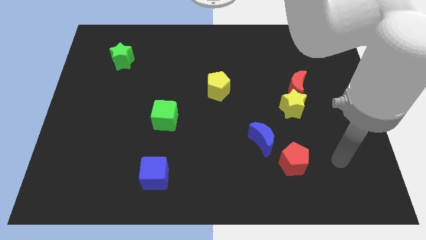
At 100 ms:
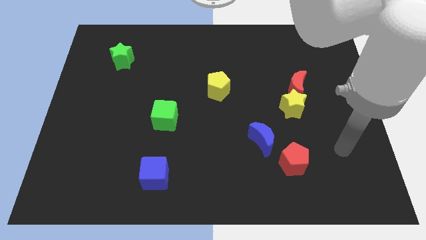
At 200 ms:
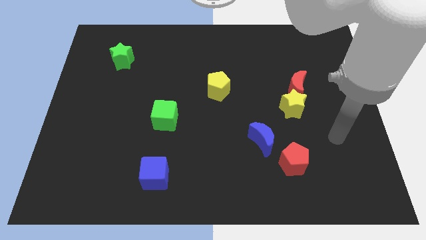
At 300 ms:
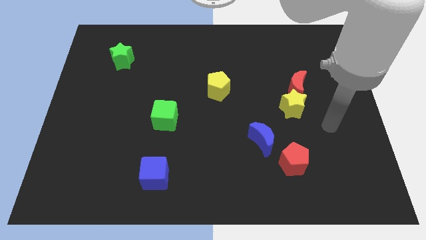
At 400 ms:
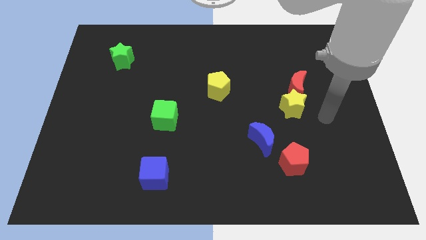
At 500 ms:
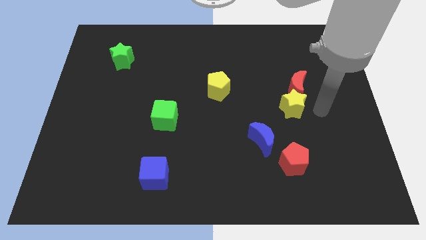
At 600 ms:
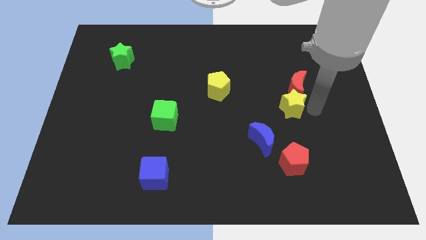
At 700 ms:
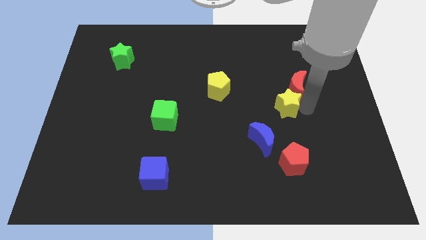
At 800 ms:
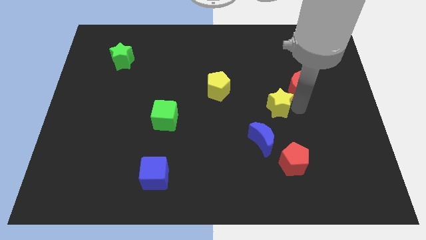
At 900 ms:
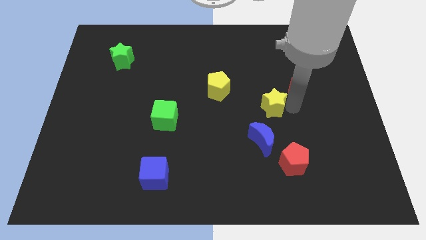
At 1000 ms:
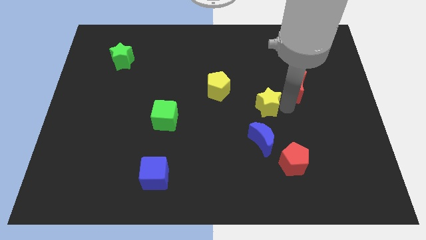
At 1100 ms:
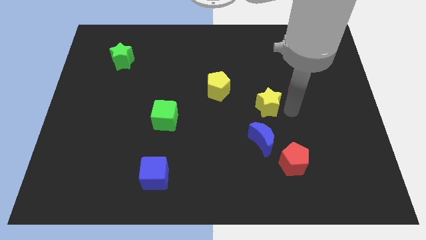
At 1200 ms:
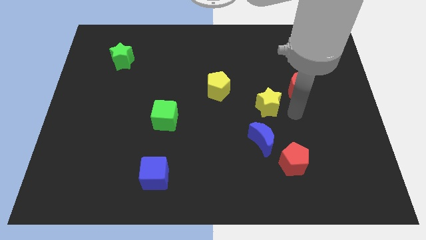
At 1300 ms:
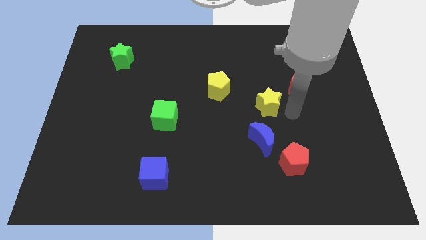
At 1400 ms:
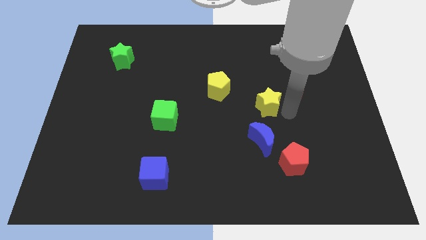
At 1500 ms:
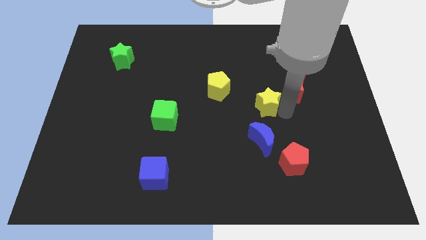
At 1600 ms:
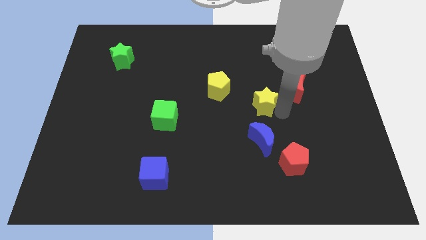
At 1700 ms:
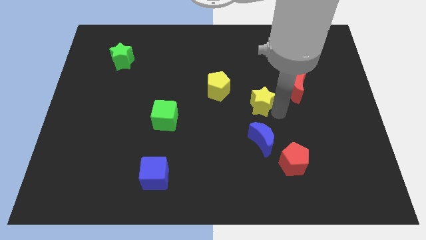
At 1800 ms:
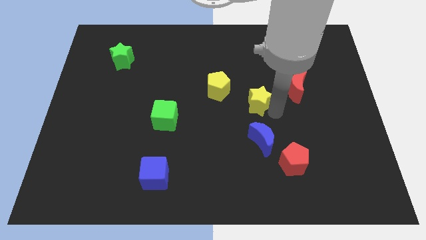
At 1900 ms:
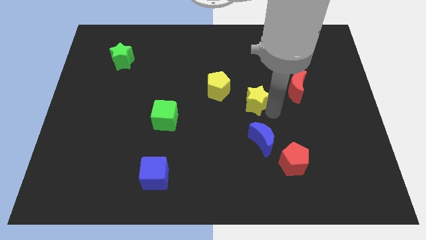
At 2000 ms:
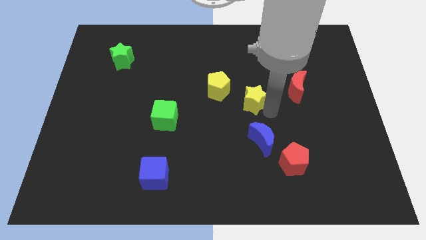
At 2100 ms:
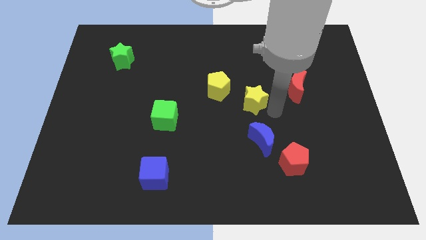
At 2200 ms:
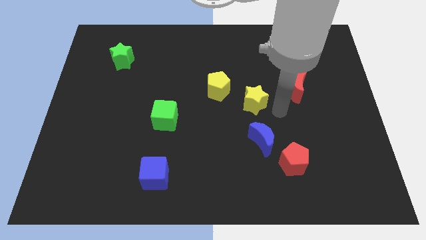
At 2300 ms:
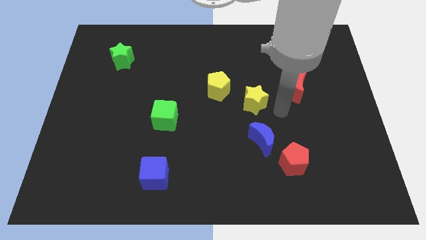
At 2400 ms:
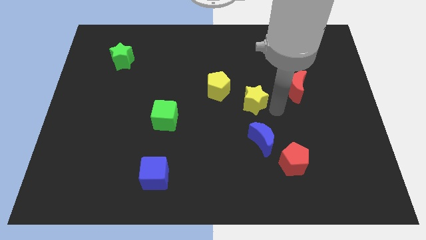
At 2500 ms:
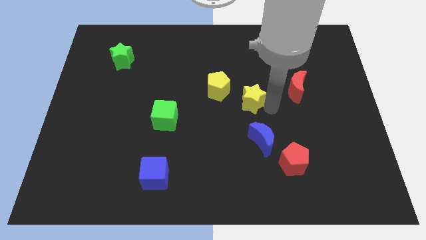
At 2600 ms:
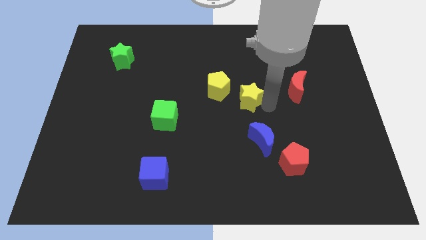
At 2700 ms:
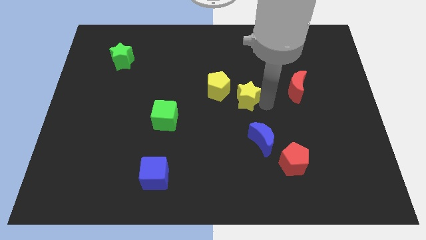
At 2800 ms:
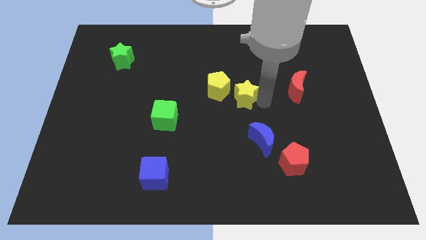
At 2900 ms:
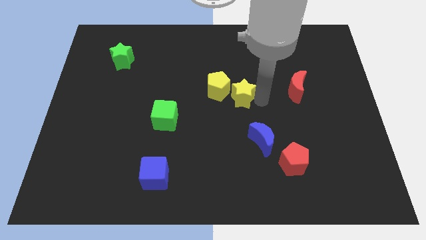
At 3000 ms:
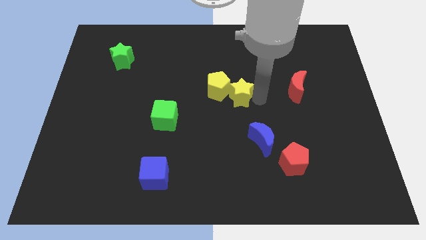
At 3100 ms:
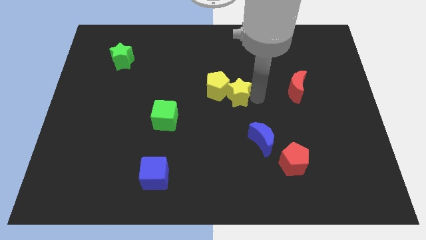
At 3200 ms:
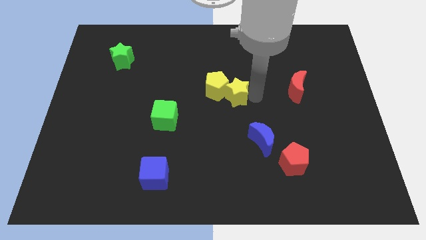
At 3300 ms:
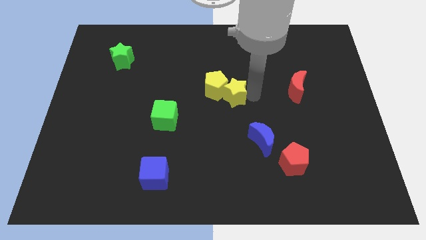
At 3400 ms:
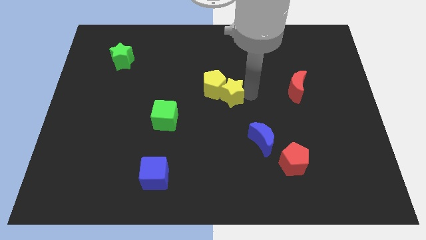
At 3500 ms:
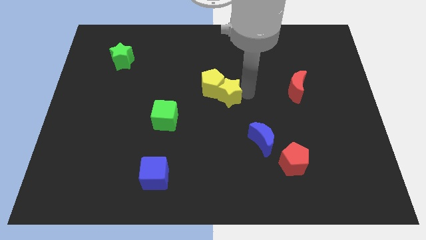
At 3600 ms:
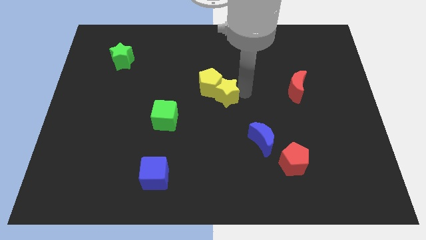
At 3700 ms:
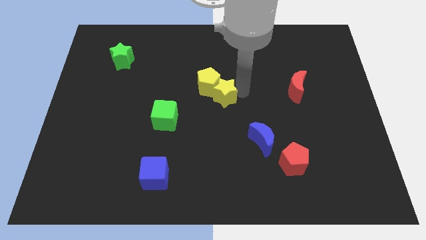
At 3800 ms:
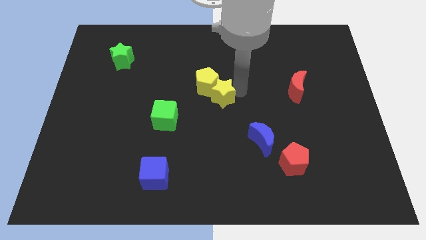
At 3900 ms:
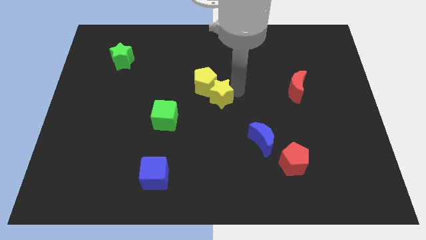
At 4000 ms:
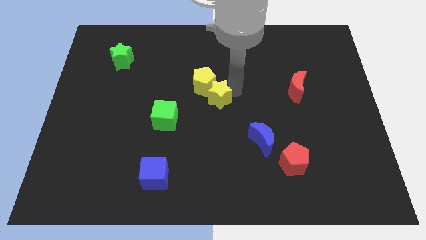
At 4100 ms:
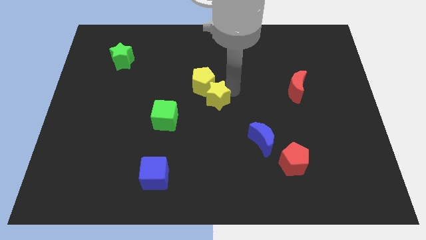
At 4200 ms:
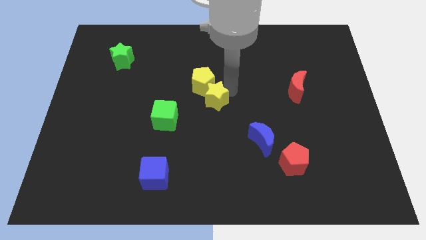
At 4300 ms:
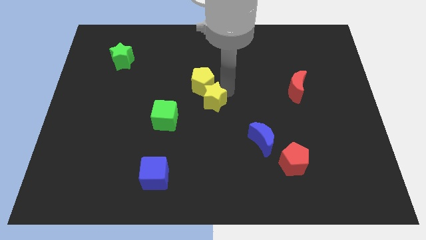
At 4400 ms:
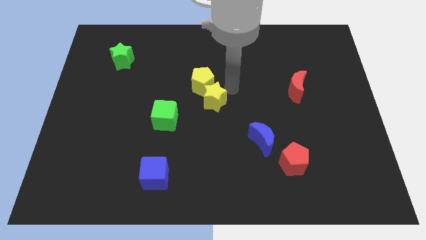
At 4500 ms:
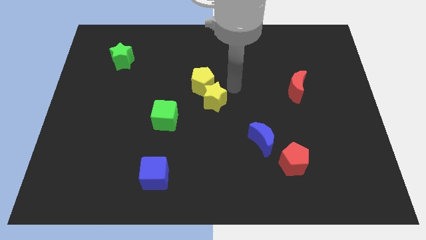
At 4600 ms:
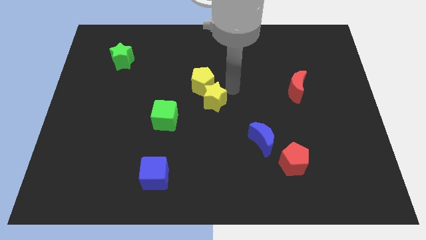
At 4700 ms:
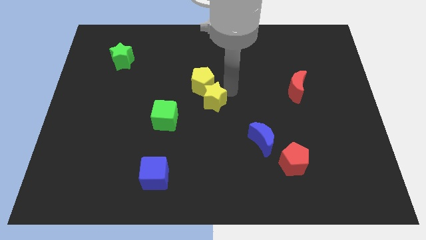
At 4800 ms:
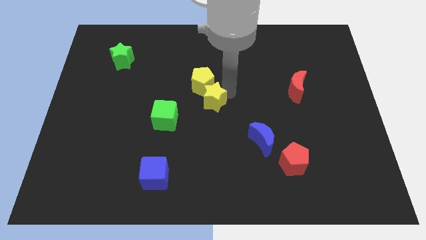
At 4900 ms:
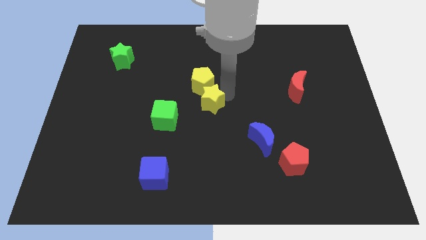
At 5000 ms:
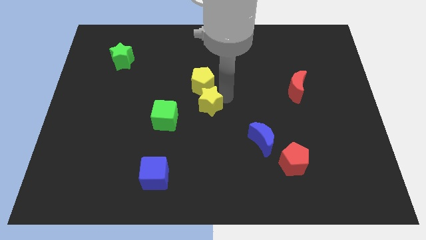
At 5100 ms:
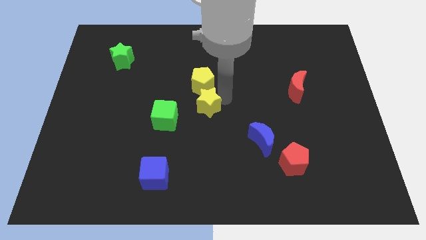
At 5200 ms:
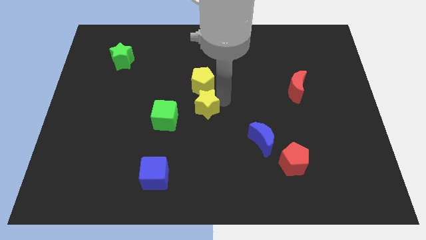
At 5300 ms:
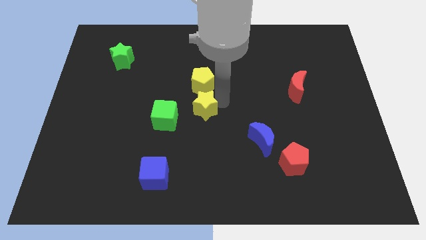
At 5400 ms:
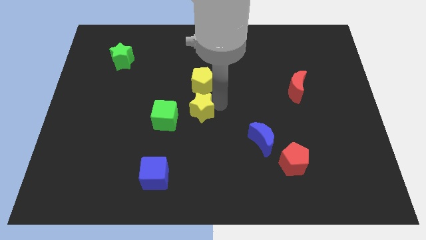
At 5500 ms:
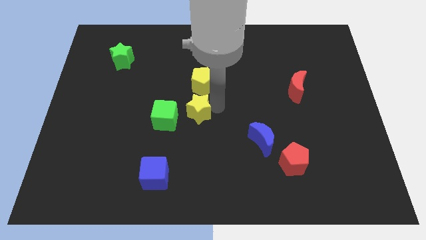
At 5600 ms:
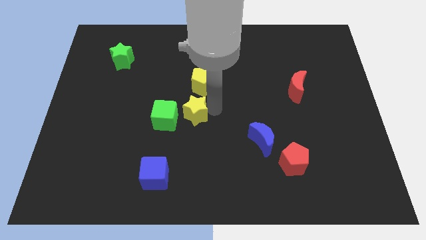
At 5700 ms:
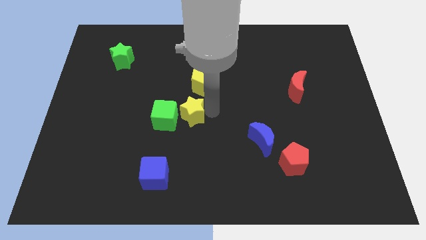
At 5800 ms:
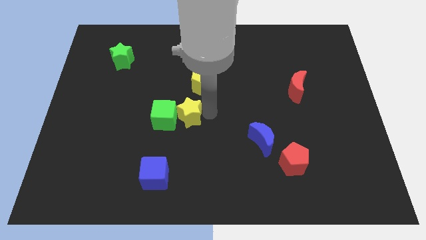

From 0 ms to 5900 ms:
push the yellow star close to the green cube

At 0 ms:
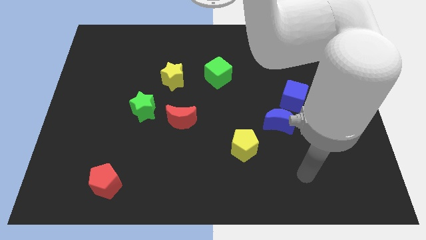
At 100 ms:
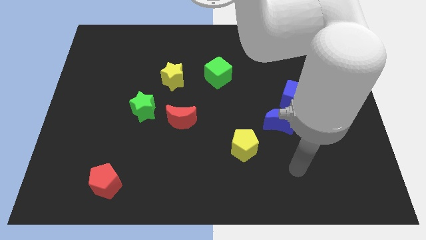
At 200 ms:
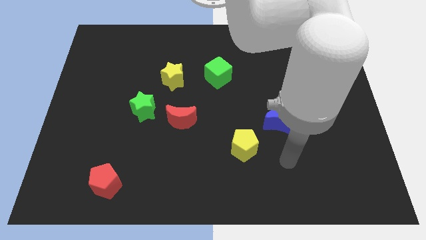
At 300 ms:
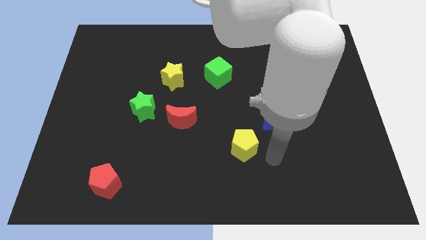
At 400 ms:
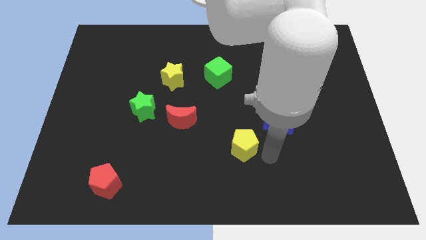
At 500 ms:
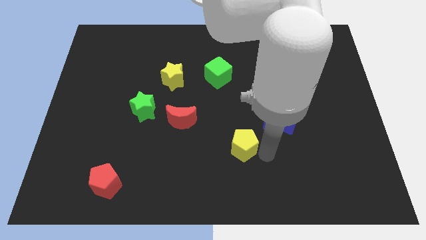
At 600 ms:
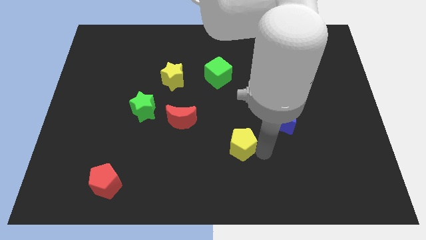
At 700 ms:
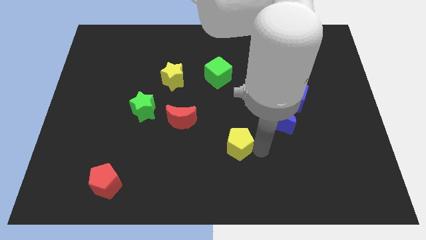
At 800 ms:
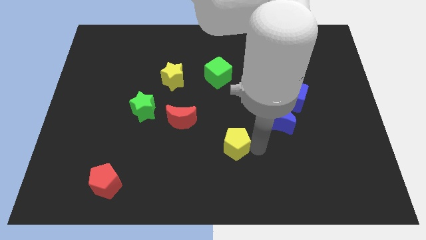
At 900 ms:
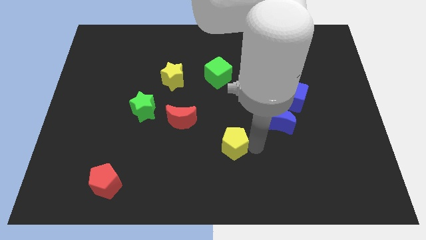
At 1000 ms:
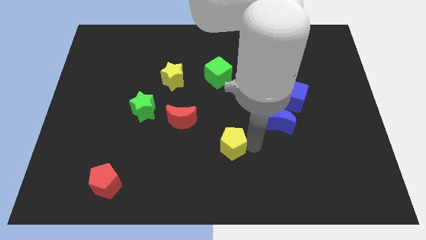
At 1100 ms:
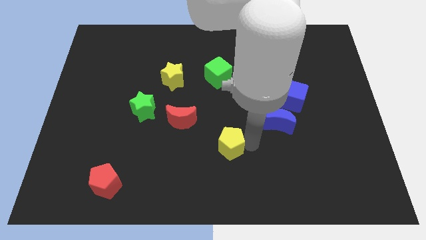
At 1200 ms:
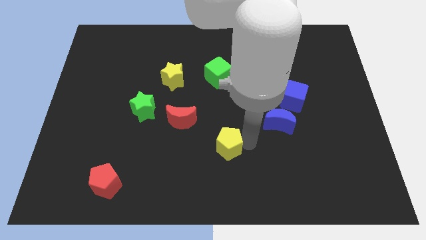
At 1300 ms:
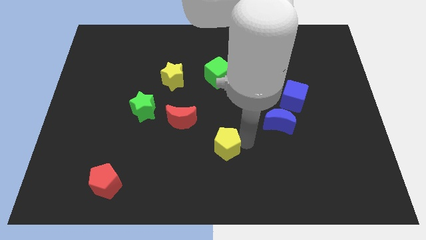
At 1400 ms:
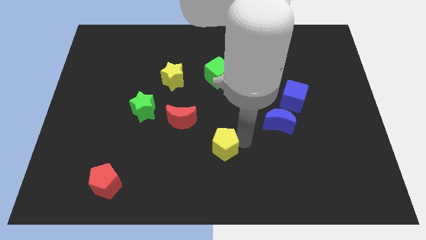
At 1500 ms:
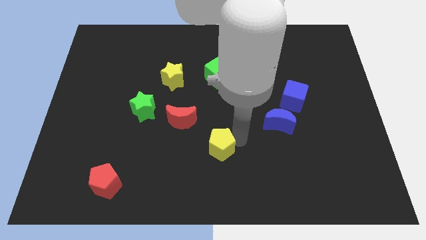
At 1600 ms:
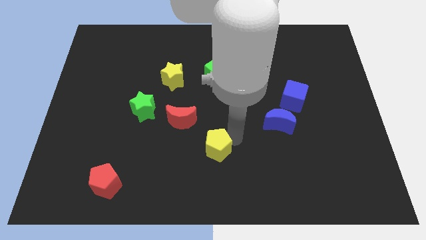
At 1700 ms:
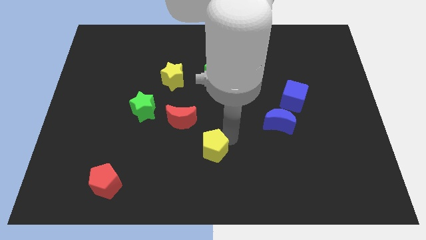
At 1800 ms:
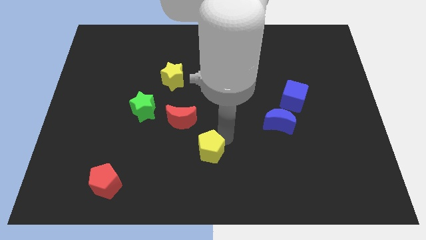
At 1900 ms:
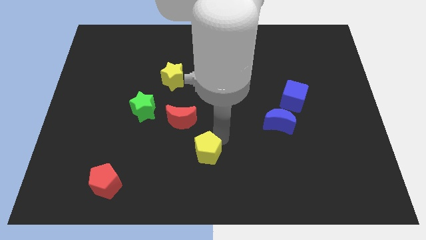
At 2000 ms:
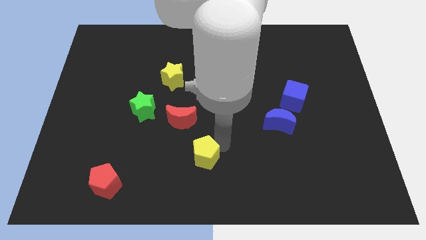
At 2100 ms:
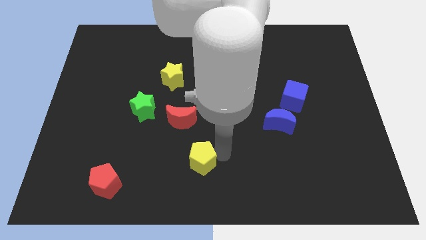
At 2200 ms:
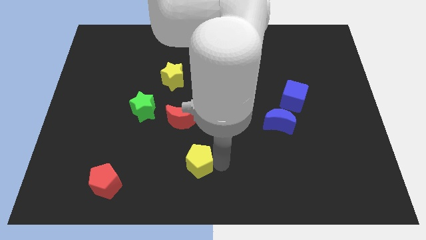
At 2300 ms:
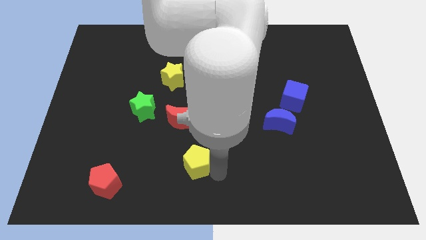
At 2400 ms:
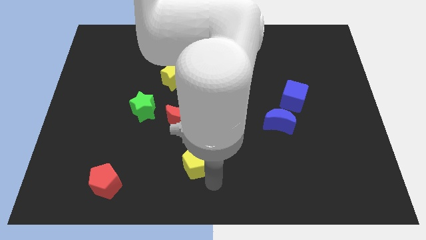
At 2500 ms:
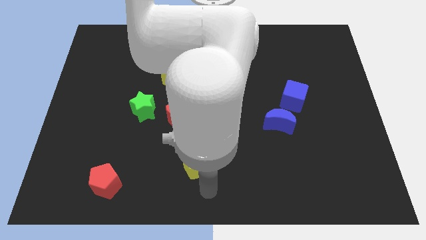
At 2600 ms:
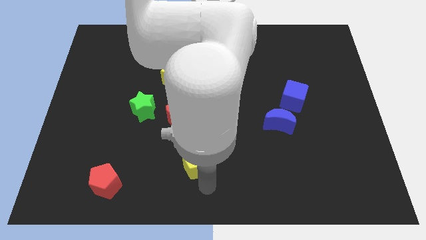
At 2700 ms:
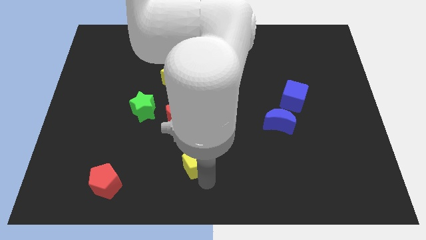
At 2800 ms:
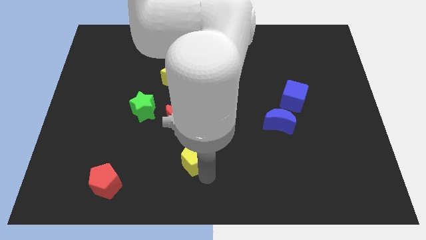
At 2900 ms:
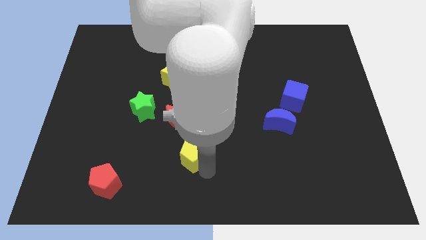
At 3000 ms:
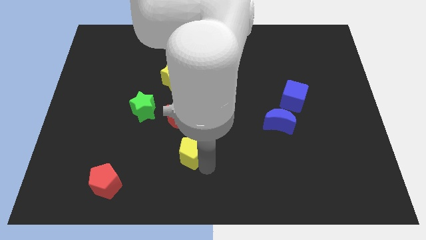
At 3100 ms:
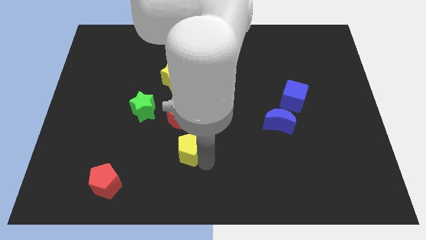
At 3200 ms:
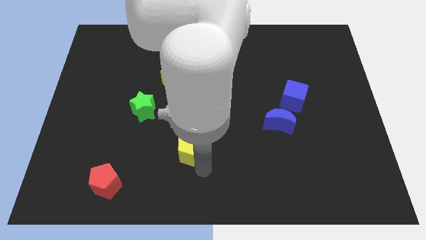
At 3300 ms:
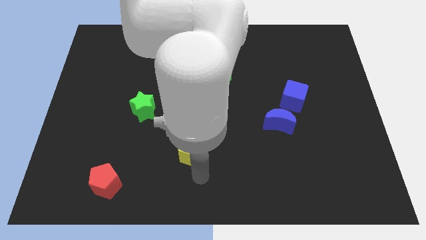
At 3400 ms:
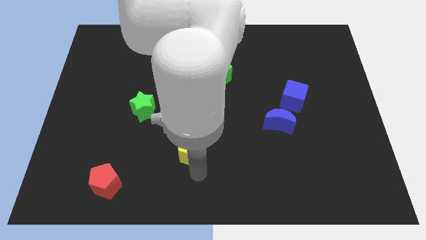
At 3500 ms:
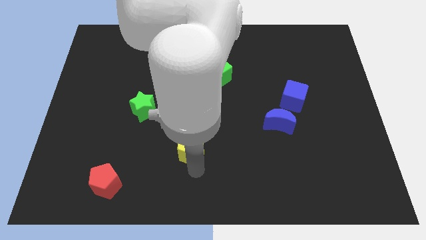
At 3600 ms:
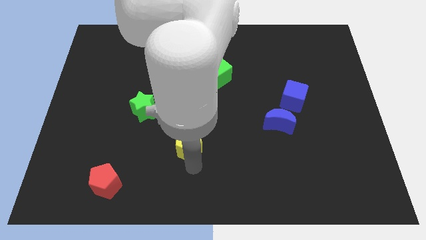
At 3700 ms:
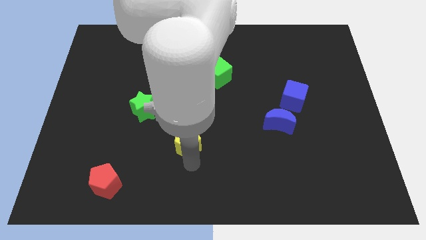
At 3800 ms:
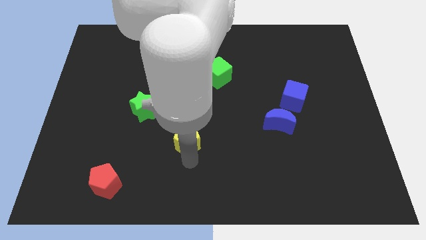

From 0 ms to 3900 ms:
push the yellow pentagon to the red moon
